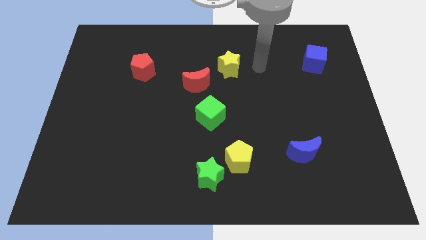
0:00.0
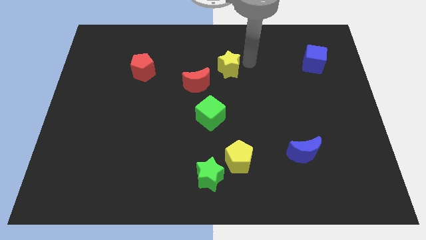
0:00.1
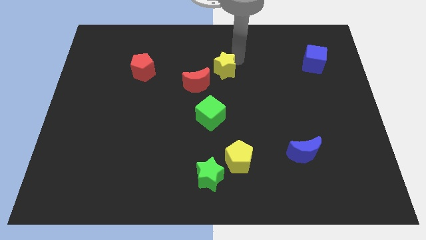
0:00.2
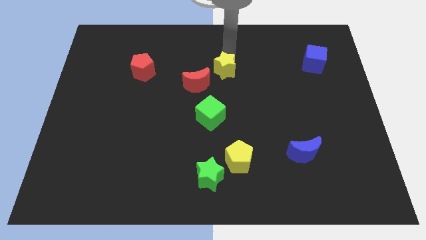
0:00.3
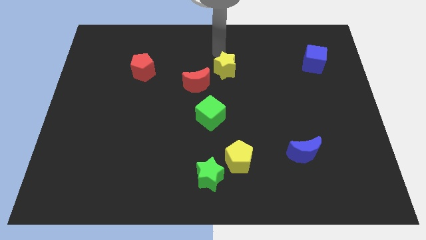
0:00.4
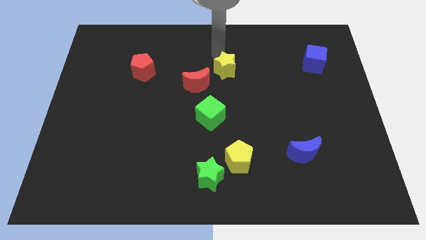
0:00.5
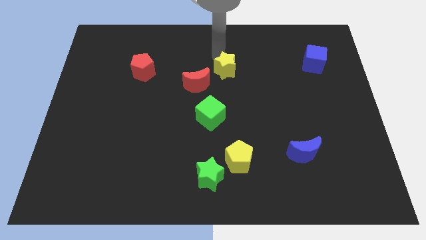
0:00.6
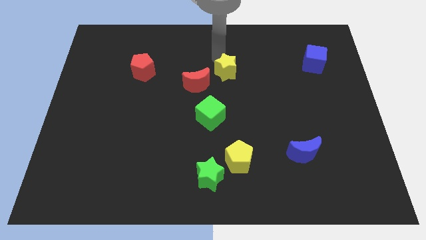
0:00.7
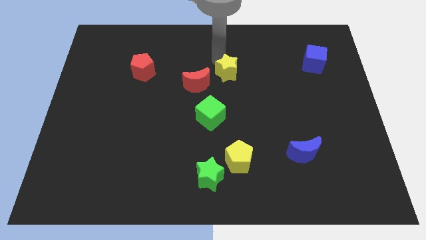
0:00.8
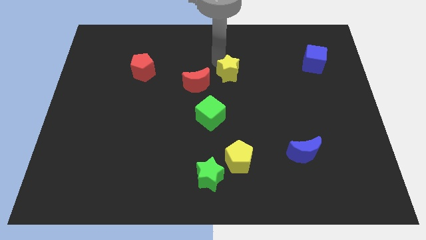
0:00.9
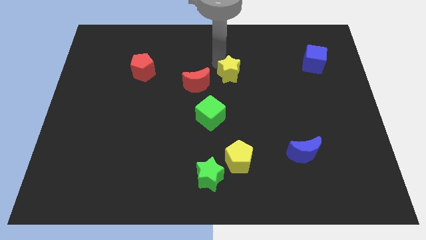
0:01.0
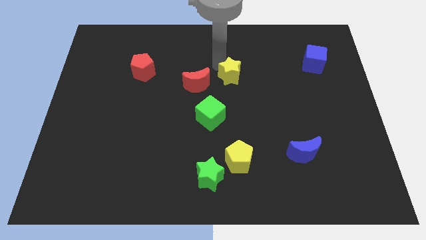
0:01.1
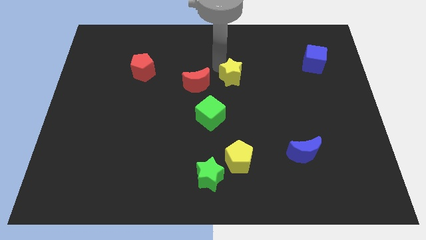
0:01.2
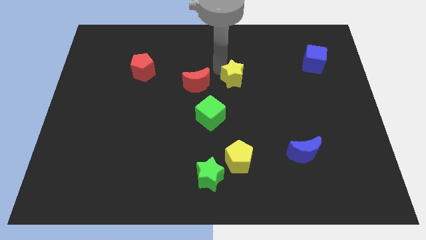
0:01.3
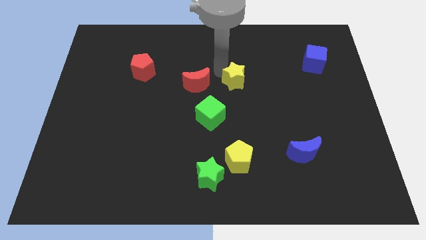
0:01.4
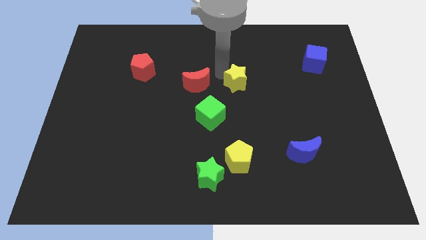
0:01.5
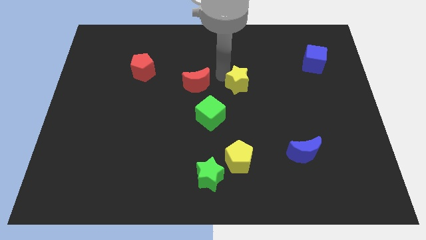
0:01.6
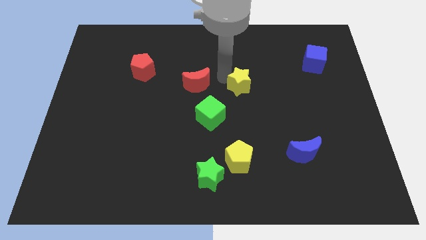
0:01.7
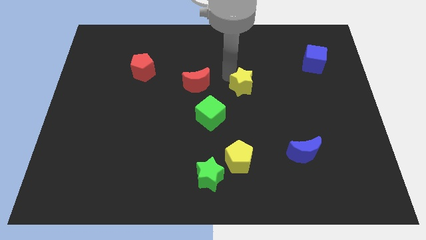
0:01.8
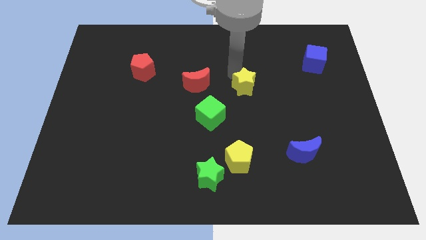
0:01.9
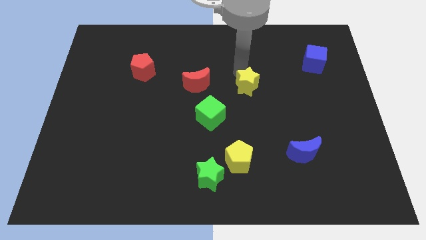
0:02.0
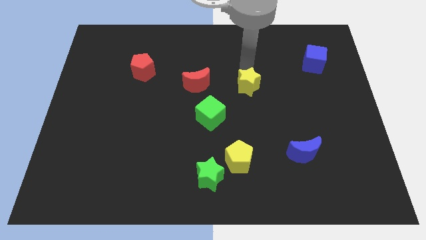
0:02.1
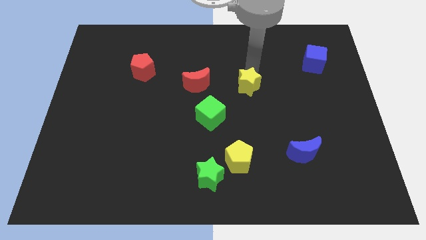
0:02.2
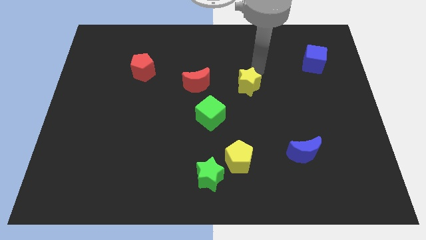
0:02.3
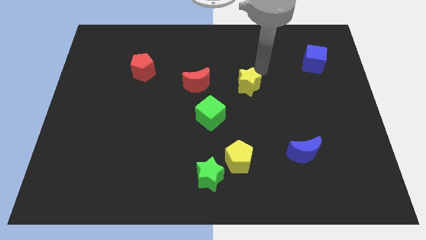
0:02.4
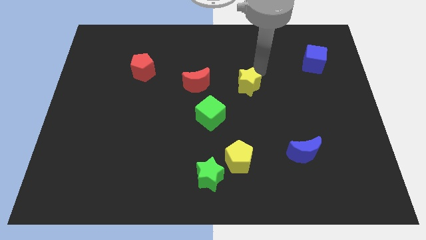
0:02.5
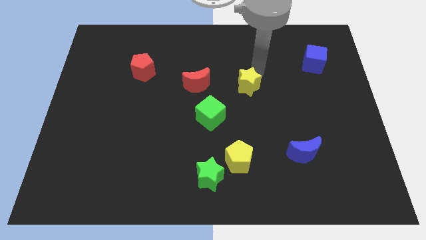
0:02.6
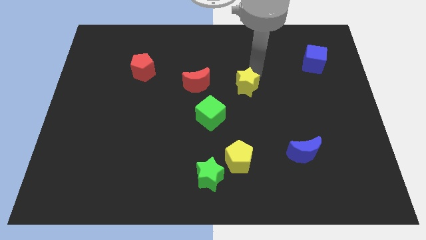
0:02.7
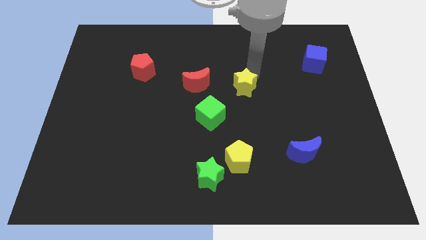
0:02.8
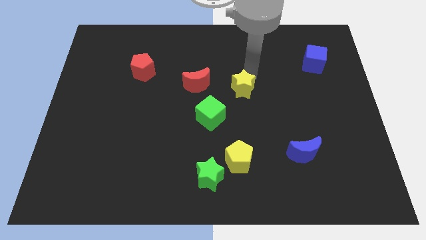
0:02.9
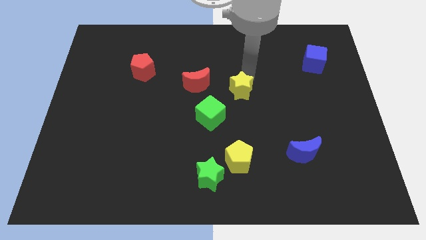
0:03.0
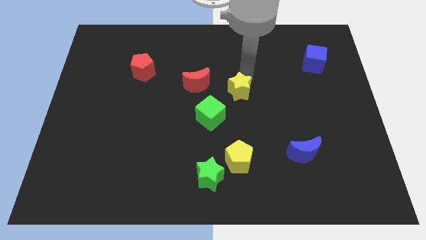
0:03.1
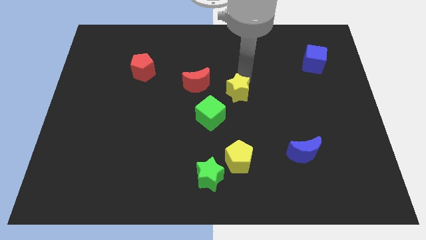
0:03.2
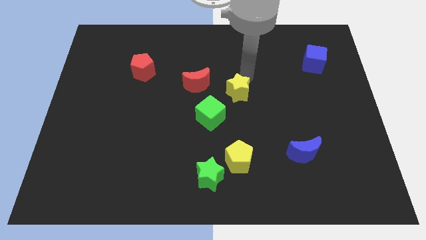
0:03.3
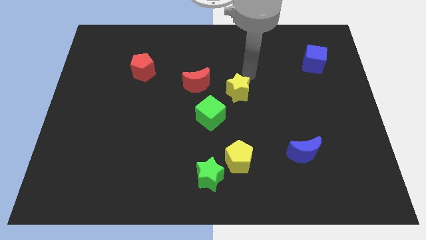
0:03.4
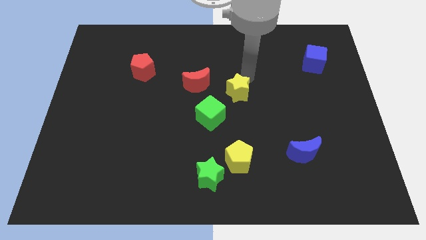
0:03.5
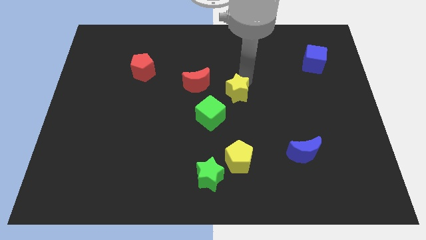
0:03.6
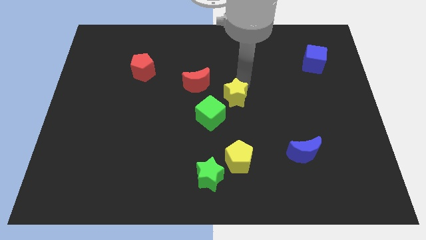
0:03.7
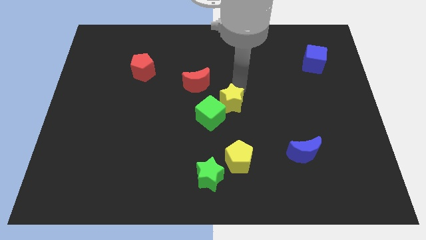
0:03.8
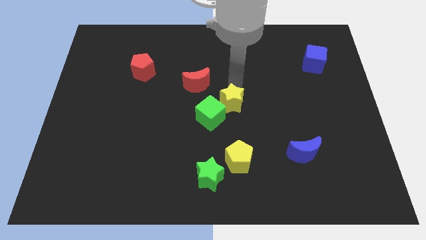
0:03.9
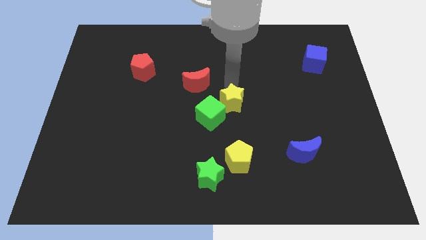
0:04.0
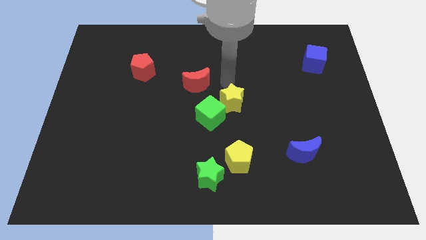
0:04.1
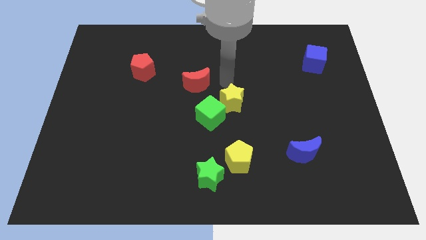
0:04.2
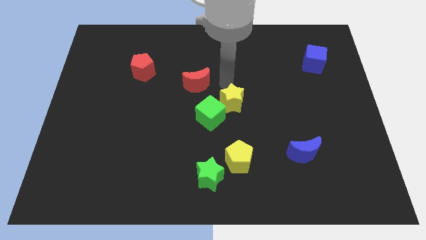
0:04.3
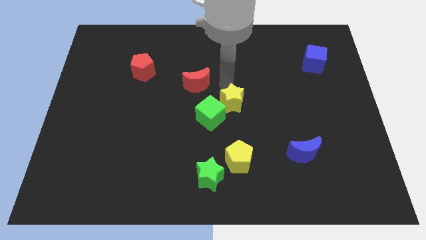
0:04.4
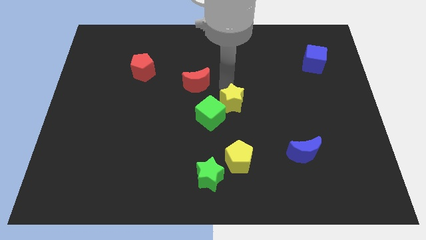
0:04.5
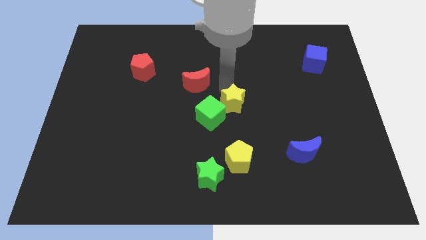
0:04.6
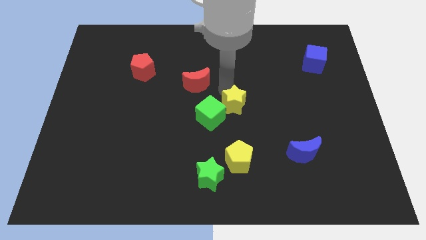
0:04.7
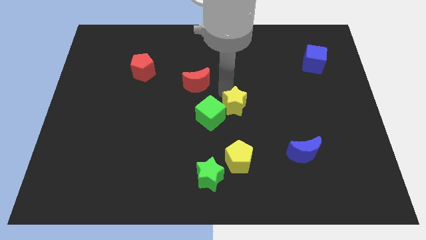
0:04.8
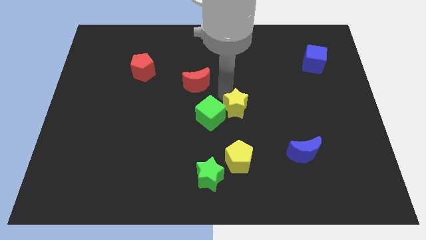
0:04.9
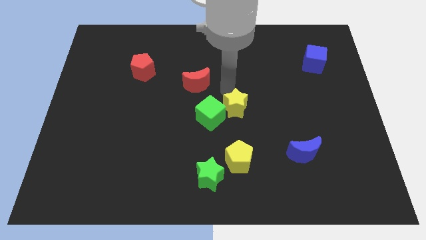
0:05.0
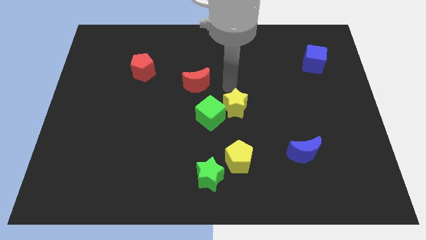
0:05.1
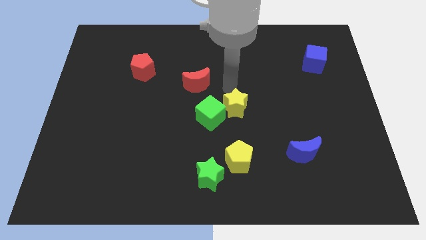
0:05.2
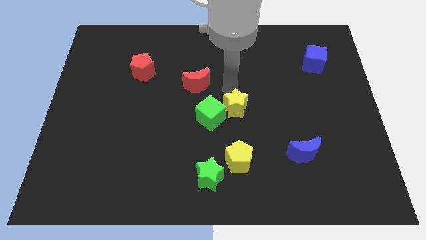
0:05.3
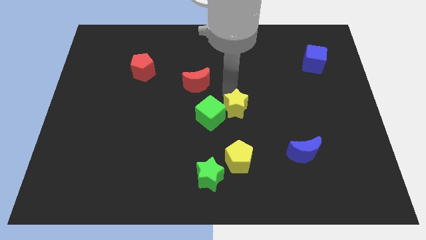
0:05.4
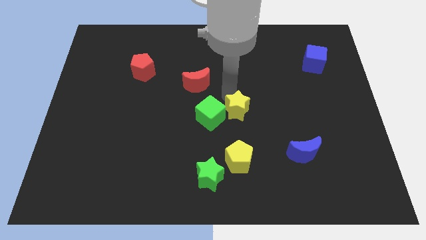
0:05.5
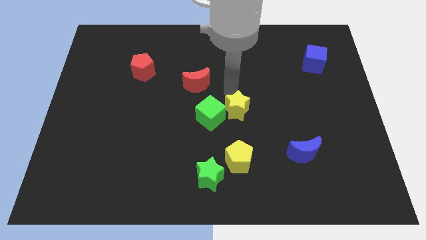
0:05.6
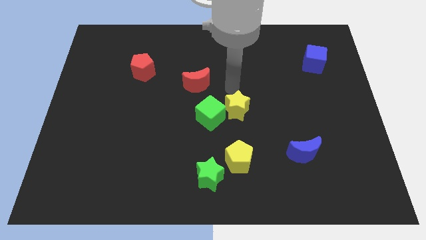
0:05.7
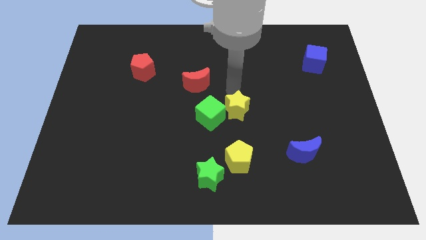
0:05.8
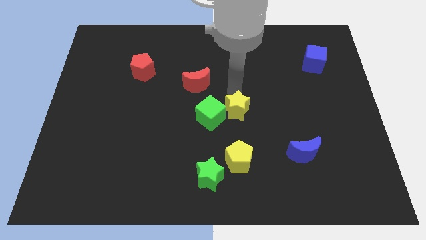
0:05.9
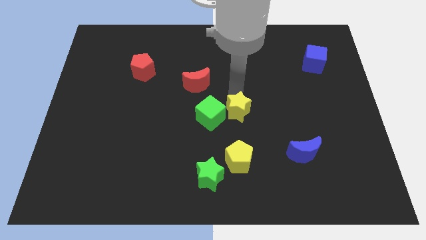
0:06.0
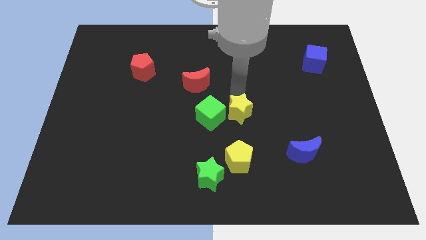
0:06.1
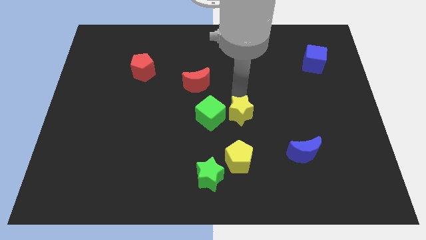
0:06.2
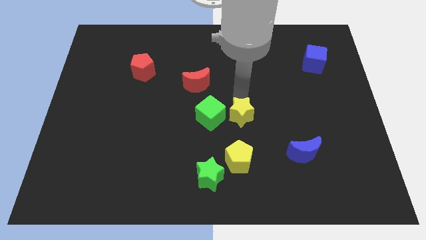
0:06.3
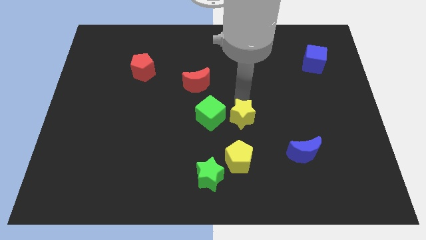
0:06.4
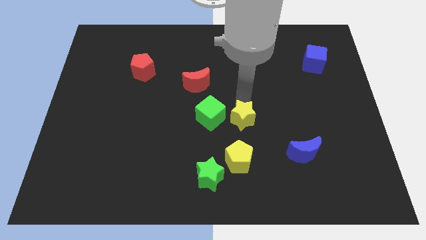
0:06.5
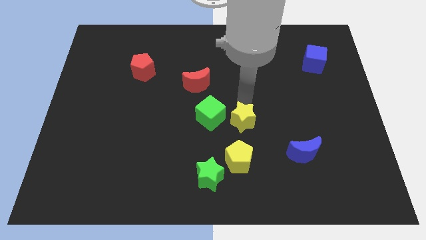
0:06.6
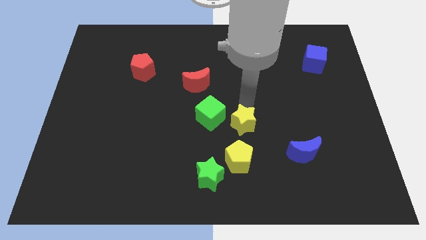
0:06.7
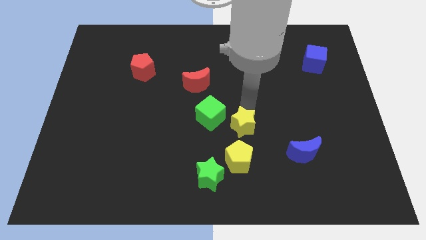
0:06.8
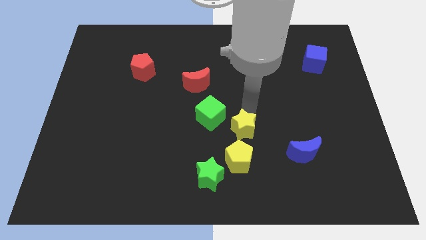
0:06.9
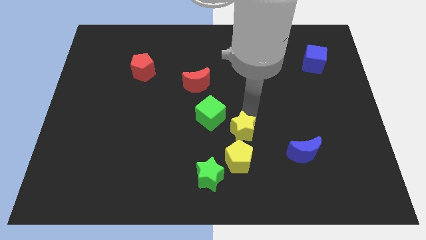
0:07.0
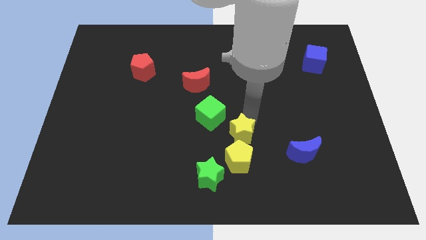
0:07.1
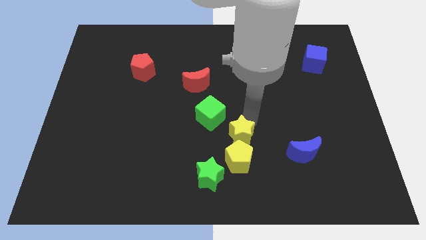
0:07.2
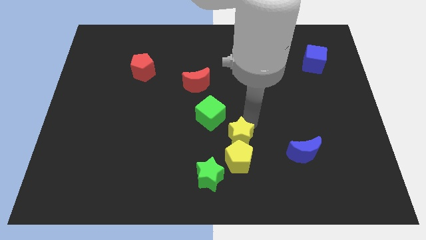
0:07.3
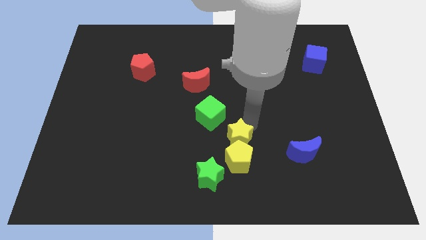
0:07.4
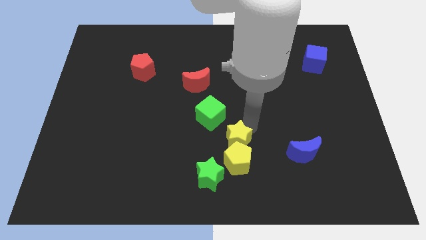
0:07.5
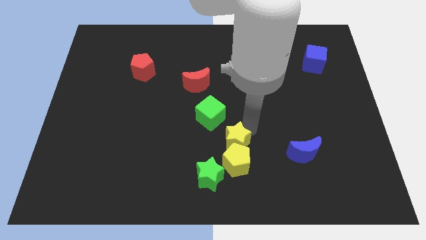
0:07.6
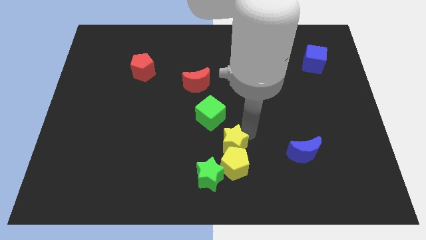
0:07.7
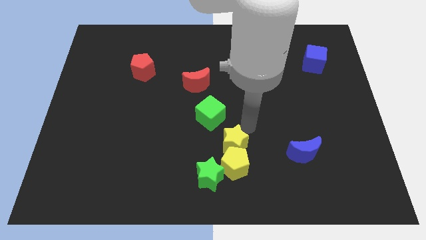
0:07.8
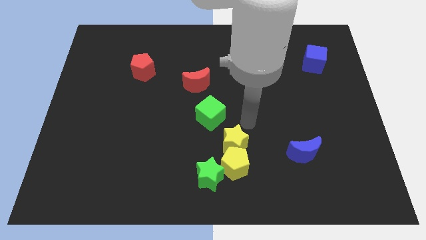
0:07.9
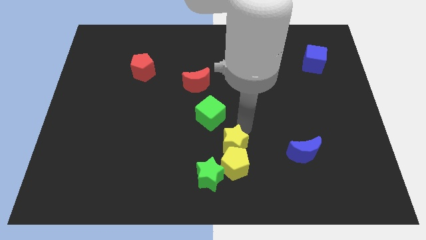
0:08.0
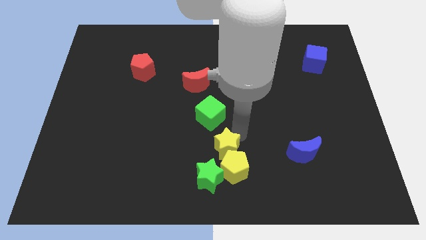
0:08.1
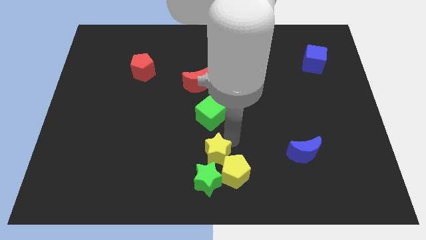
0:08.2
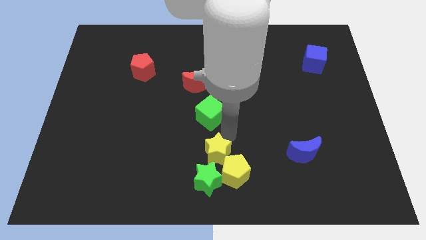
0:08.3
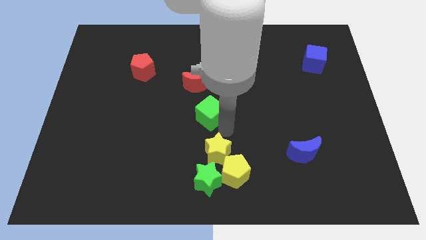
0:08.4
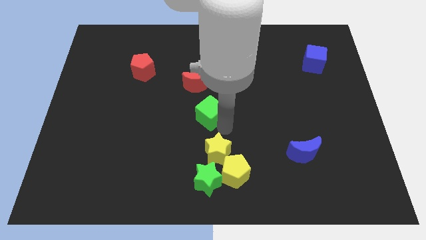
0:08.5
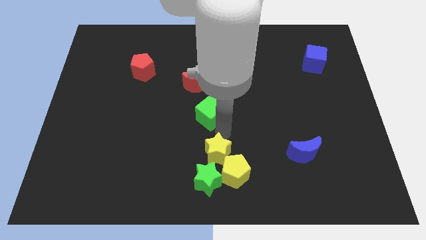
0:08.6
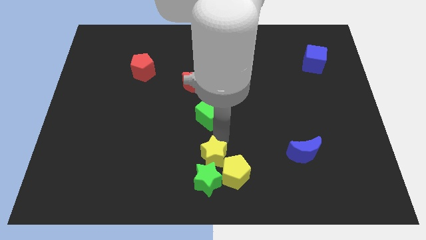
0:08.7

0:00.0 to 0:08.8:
put the yellow star next to the green star
